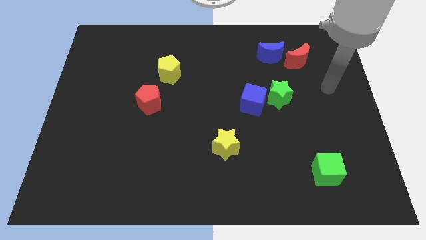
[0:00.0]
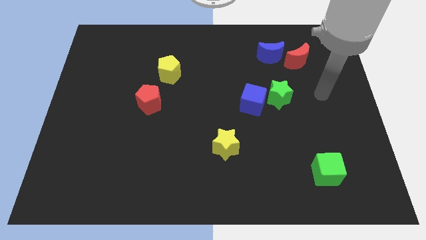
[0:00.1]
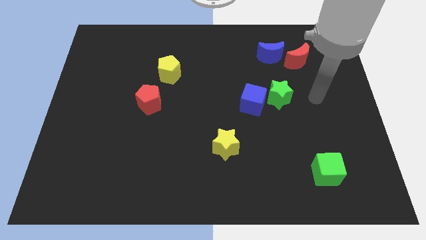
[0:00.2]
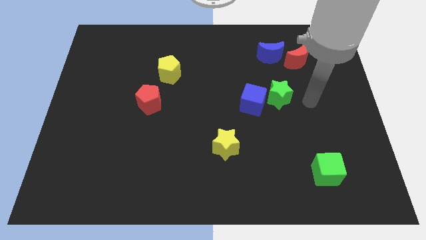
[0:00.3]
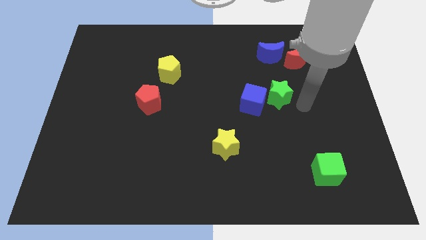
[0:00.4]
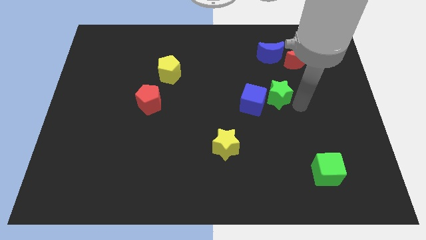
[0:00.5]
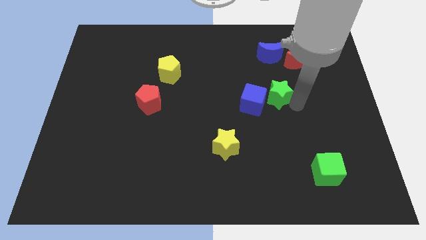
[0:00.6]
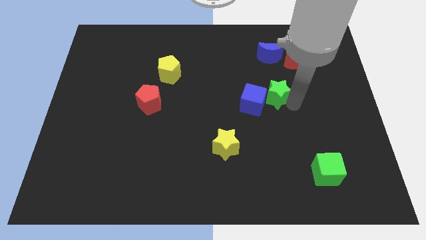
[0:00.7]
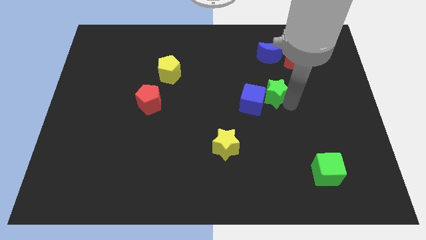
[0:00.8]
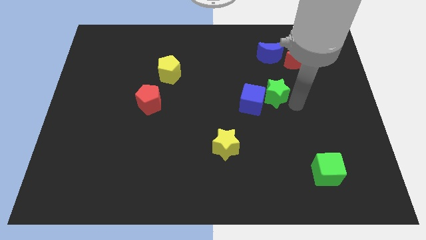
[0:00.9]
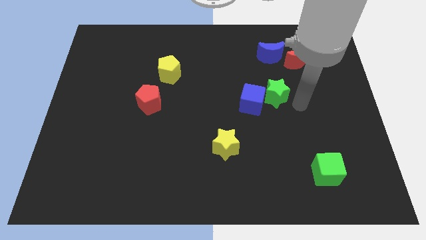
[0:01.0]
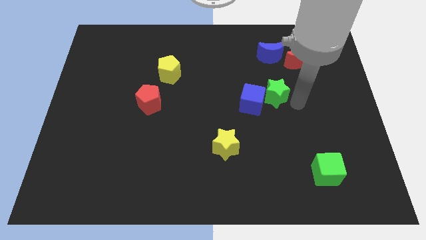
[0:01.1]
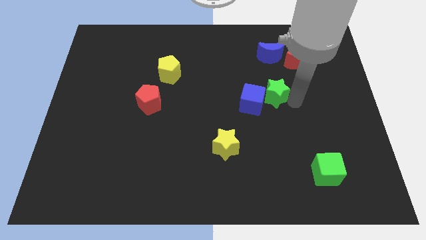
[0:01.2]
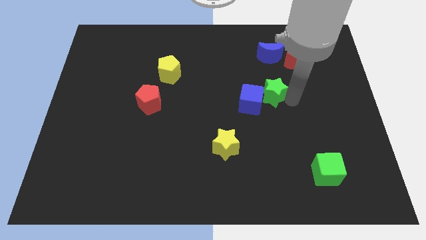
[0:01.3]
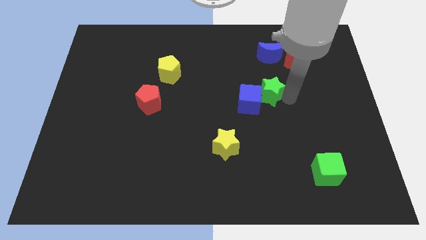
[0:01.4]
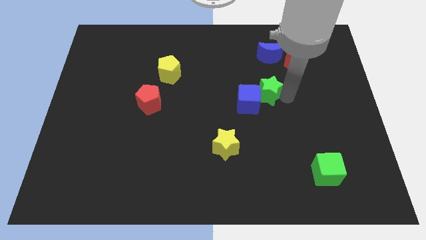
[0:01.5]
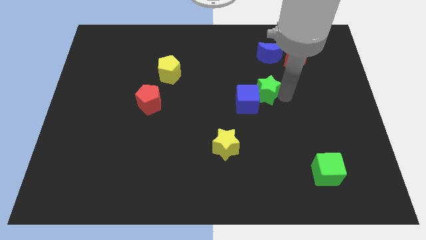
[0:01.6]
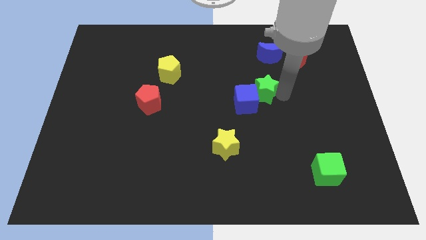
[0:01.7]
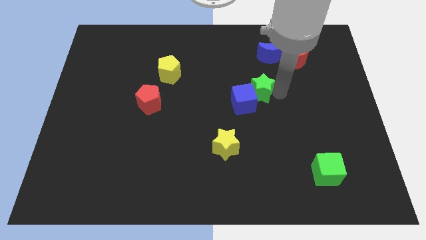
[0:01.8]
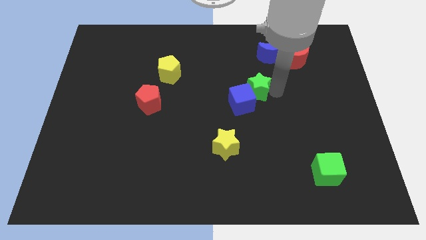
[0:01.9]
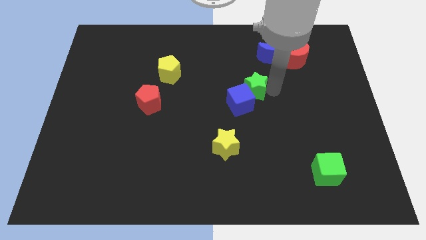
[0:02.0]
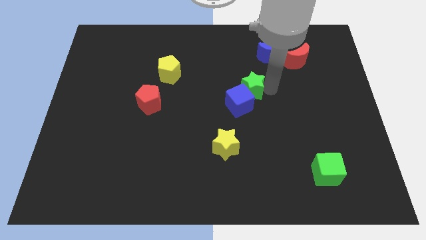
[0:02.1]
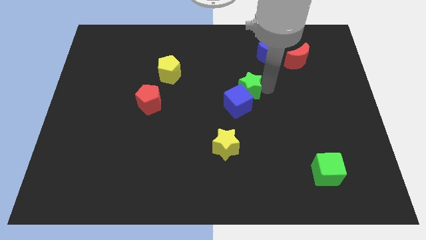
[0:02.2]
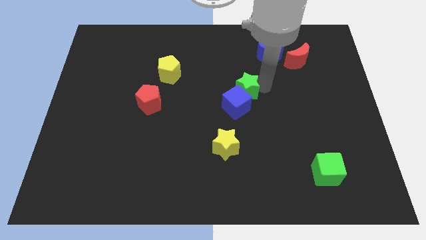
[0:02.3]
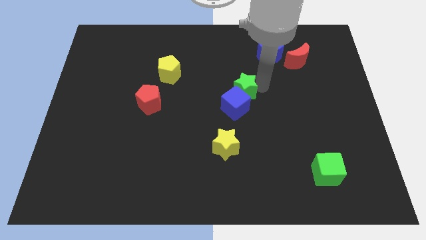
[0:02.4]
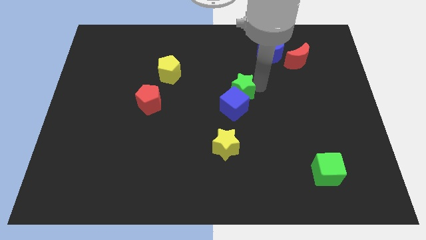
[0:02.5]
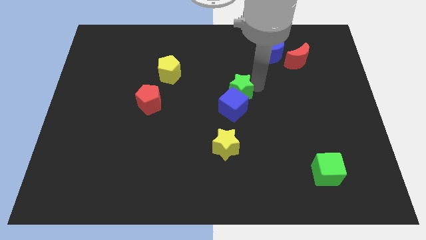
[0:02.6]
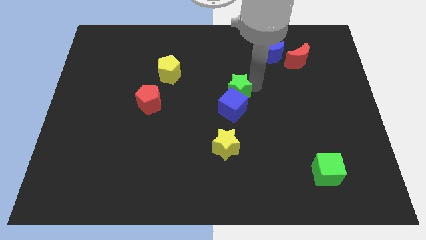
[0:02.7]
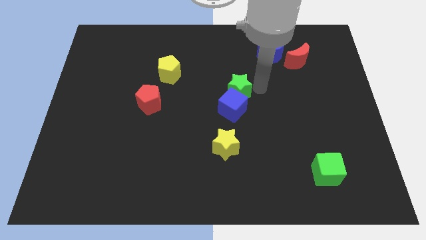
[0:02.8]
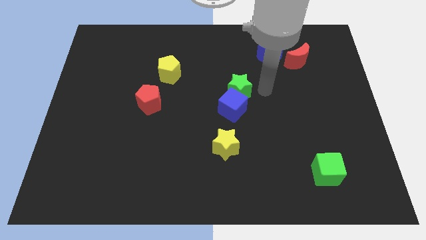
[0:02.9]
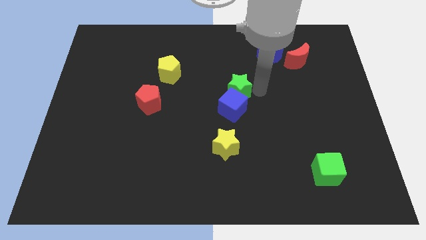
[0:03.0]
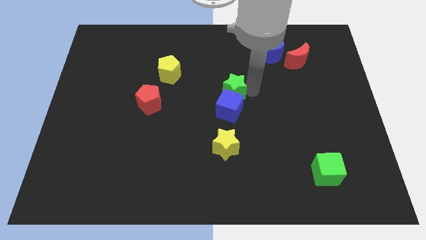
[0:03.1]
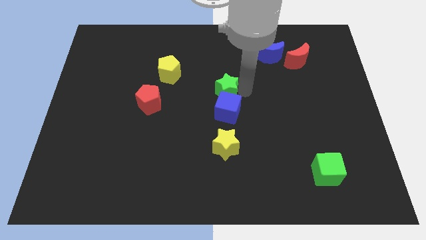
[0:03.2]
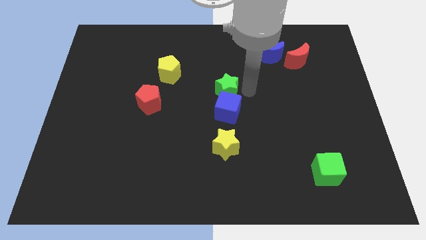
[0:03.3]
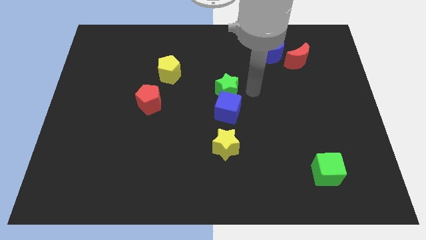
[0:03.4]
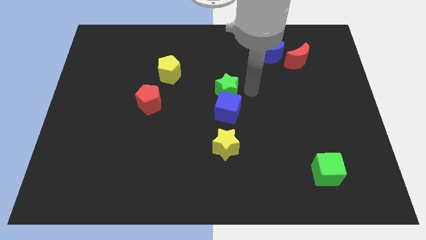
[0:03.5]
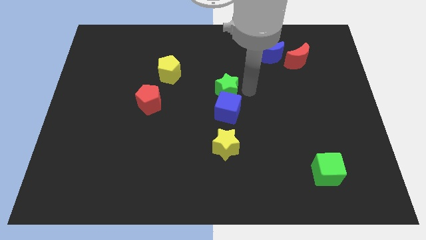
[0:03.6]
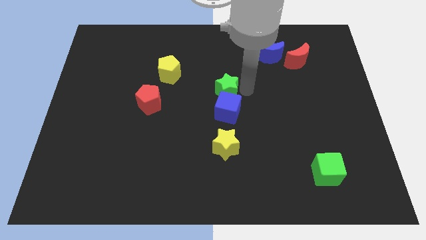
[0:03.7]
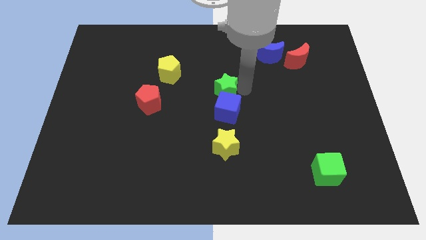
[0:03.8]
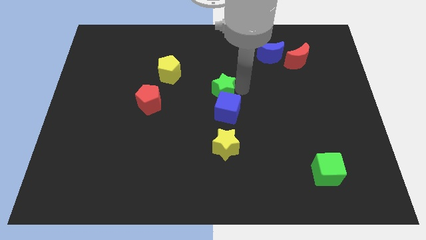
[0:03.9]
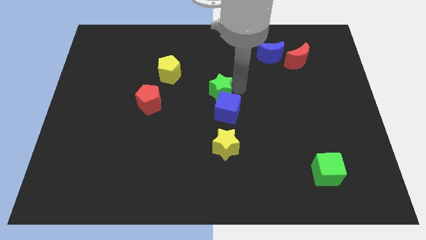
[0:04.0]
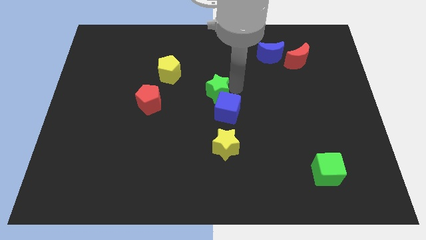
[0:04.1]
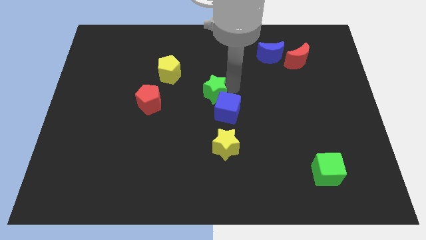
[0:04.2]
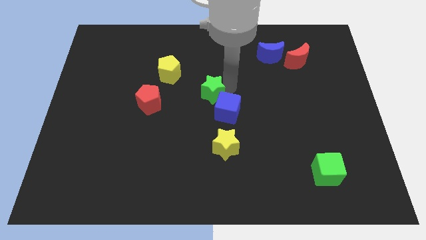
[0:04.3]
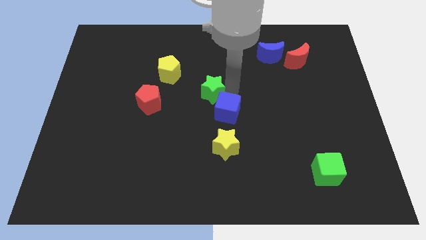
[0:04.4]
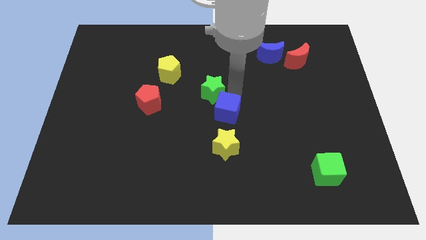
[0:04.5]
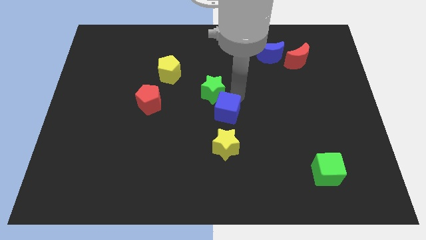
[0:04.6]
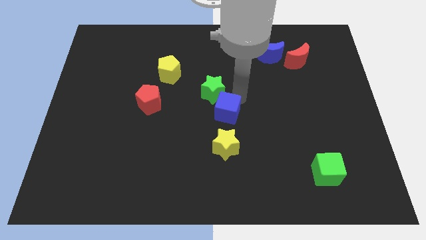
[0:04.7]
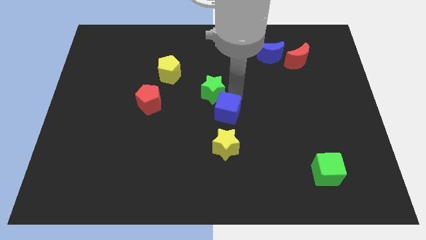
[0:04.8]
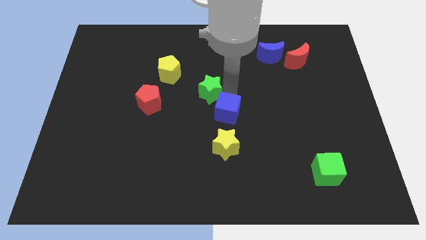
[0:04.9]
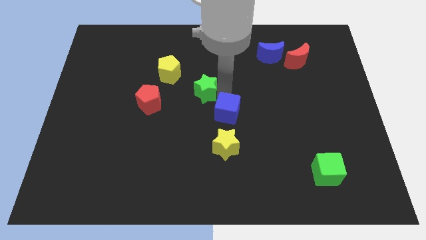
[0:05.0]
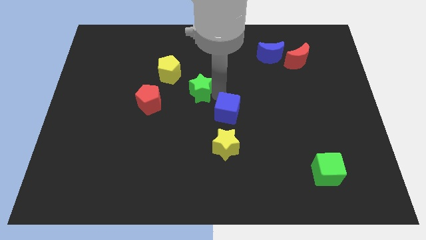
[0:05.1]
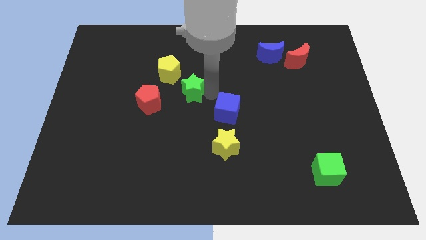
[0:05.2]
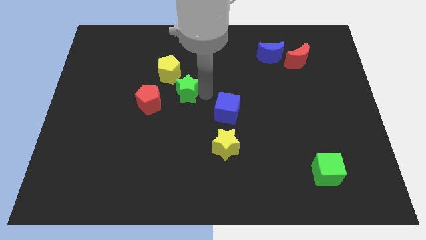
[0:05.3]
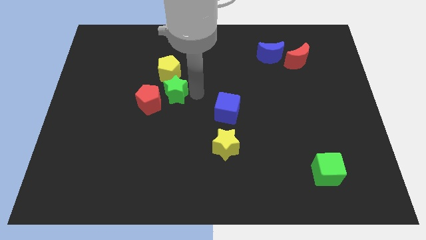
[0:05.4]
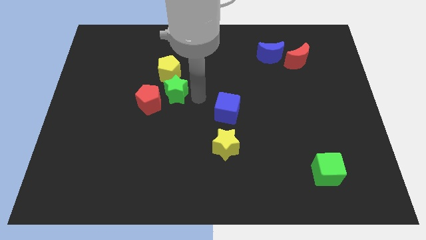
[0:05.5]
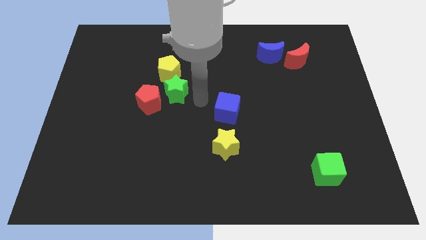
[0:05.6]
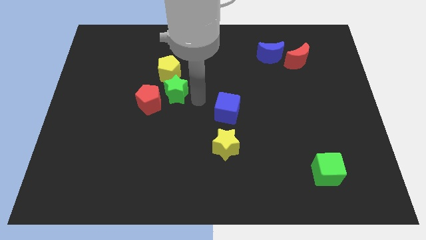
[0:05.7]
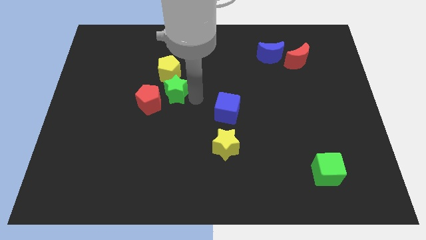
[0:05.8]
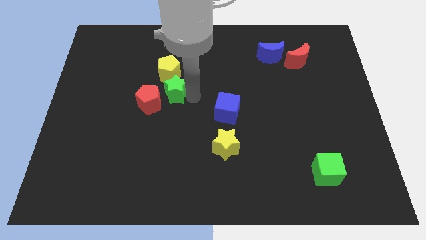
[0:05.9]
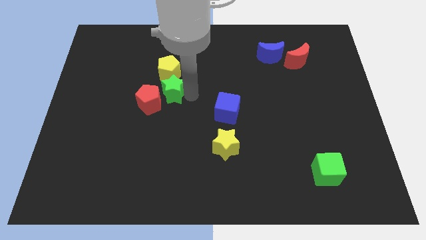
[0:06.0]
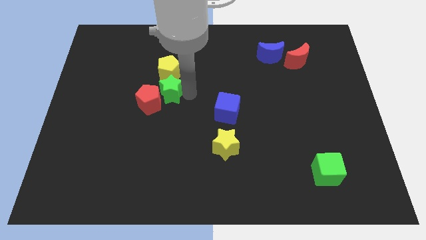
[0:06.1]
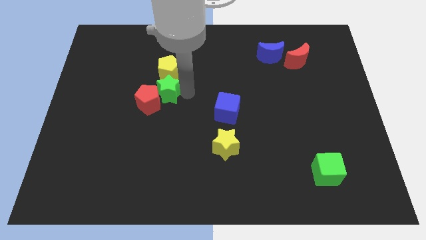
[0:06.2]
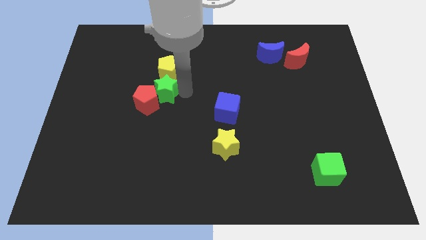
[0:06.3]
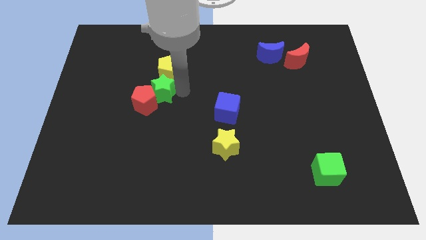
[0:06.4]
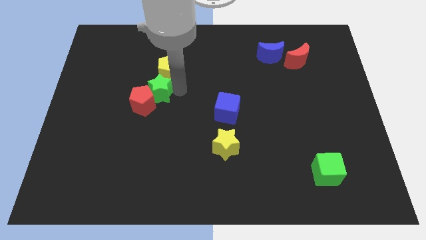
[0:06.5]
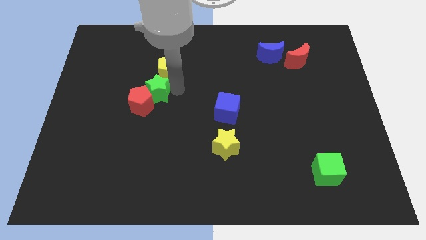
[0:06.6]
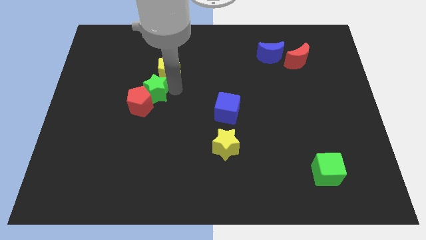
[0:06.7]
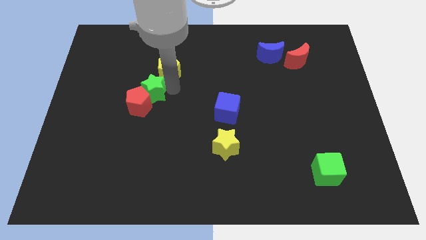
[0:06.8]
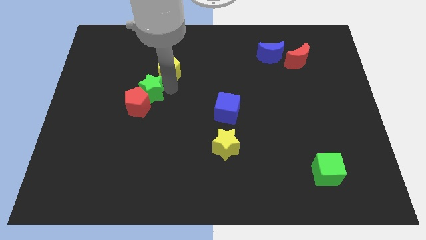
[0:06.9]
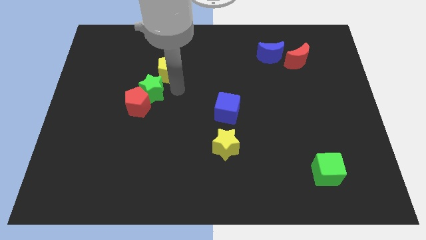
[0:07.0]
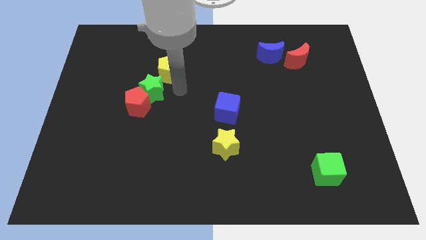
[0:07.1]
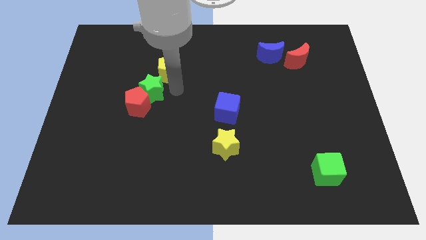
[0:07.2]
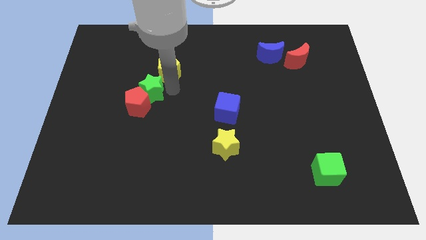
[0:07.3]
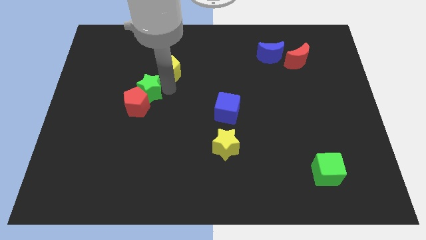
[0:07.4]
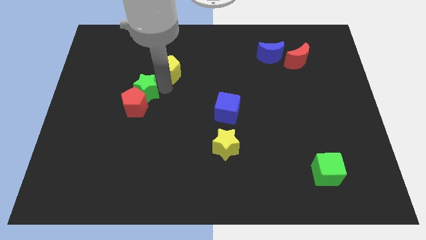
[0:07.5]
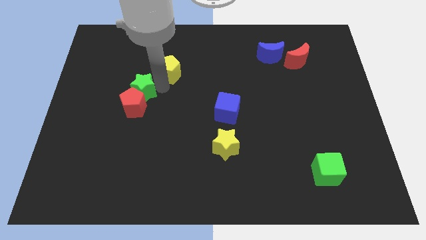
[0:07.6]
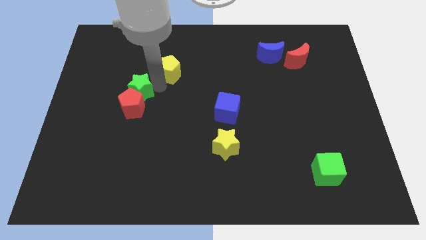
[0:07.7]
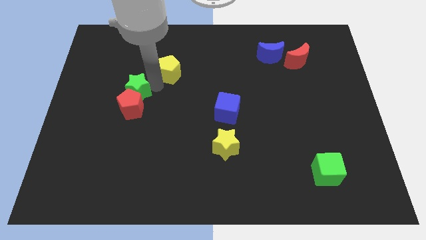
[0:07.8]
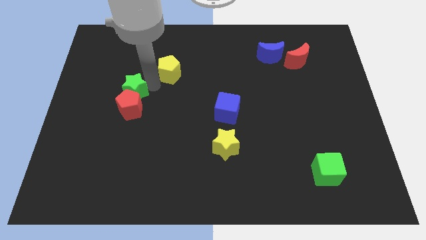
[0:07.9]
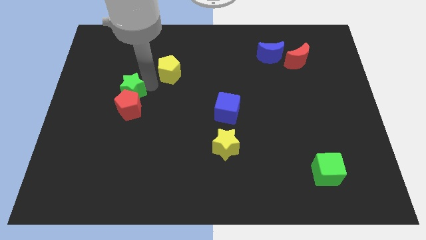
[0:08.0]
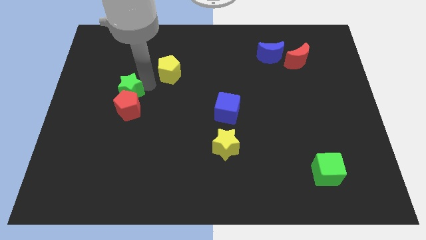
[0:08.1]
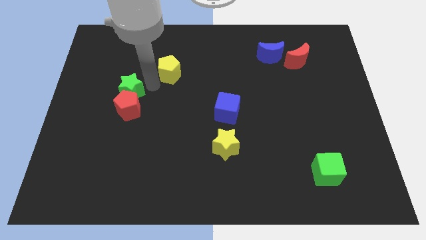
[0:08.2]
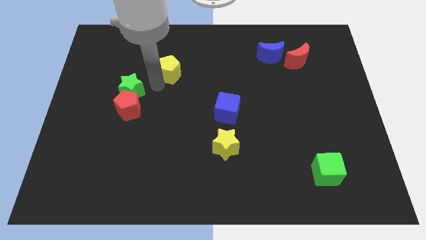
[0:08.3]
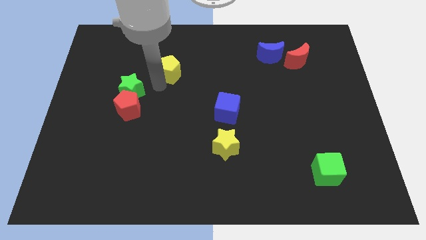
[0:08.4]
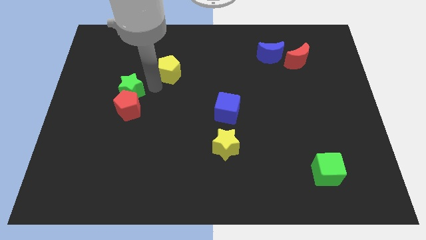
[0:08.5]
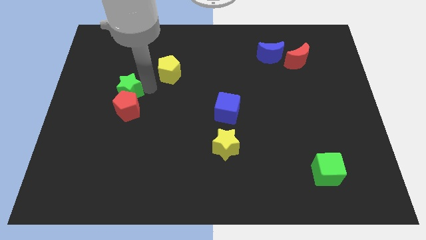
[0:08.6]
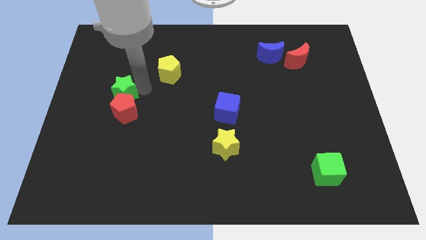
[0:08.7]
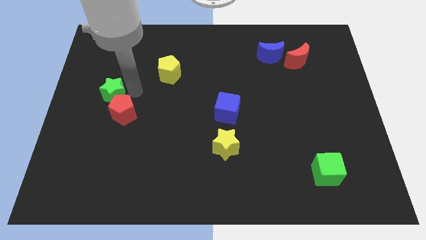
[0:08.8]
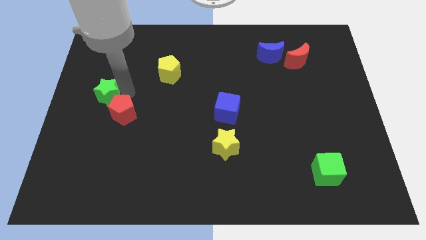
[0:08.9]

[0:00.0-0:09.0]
push the green star to the left side
